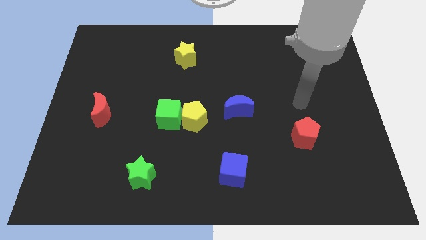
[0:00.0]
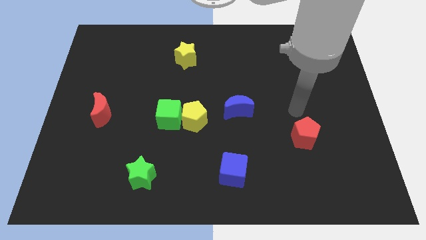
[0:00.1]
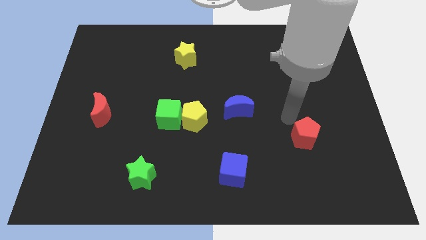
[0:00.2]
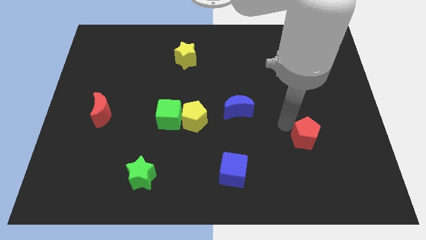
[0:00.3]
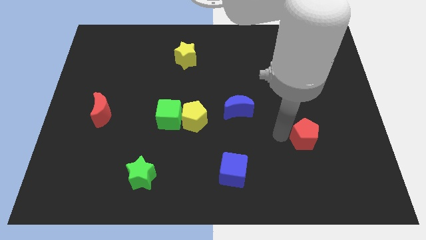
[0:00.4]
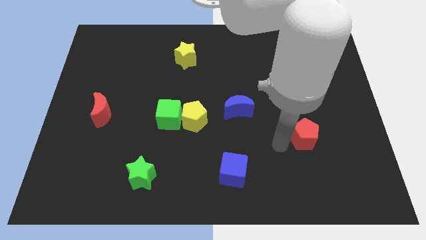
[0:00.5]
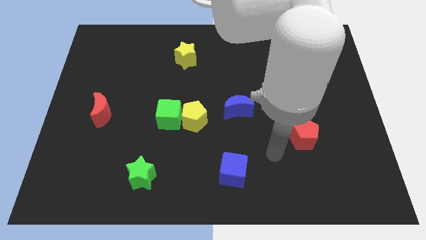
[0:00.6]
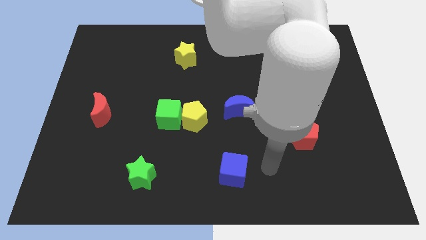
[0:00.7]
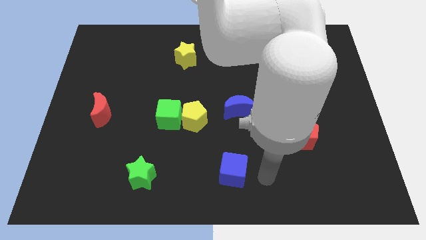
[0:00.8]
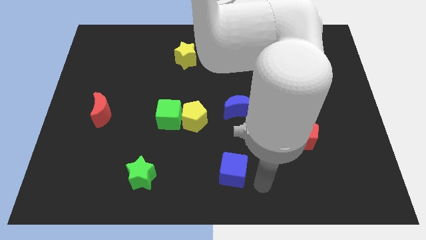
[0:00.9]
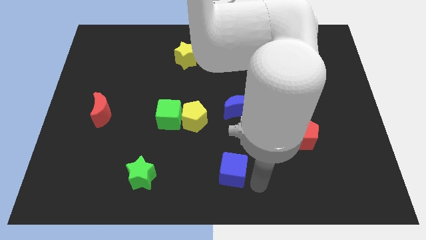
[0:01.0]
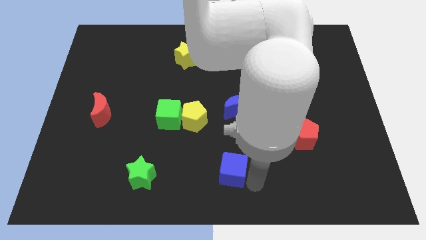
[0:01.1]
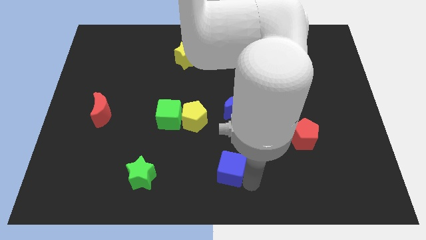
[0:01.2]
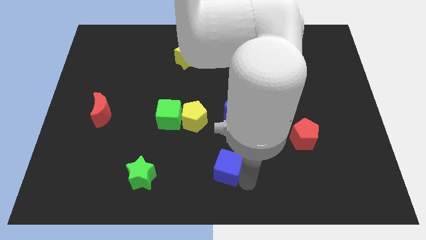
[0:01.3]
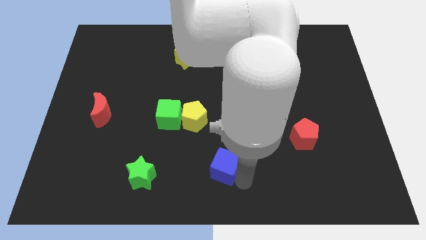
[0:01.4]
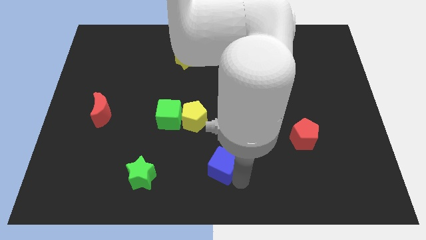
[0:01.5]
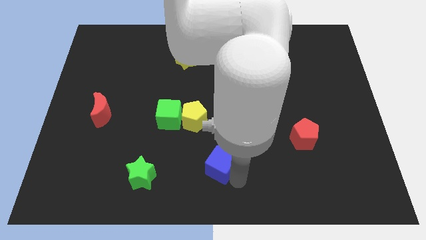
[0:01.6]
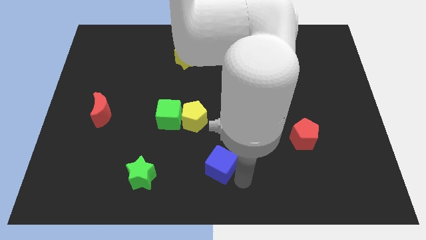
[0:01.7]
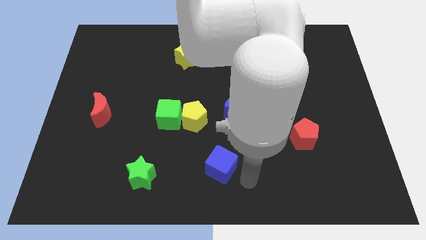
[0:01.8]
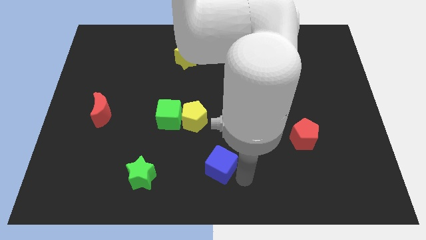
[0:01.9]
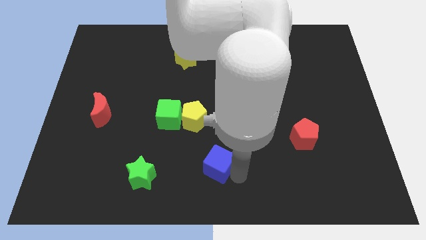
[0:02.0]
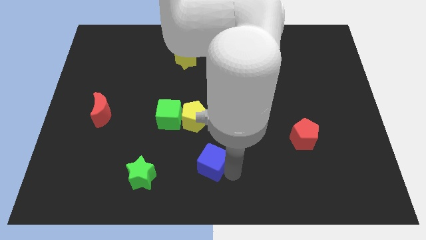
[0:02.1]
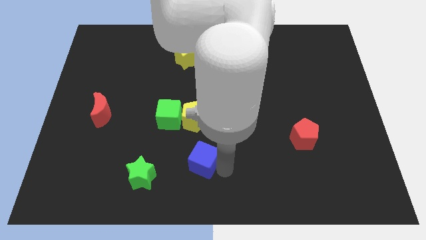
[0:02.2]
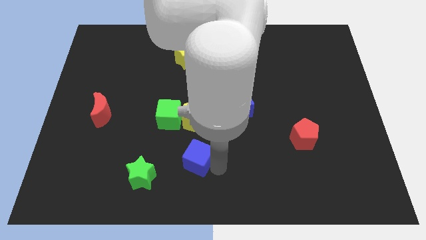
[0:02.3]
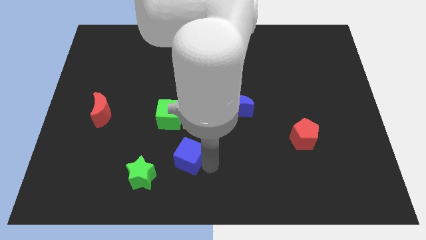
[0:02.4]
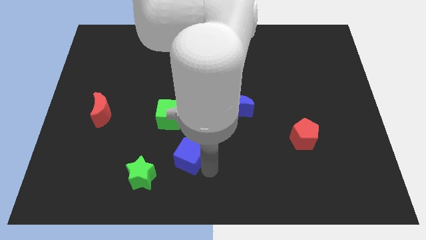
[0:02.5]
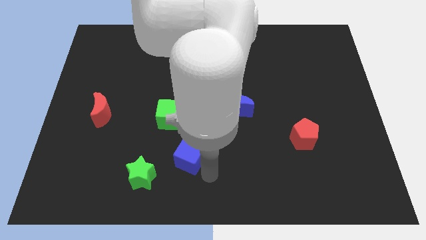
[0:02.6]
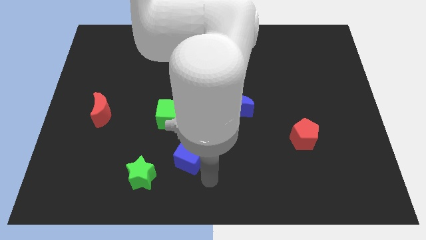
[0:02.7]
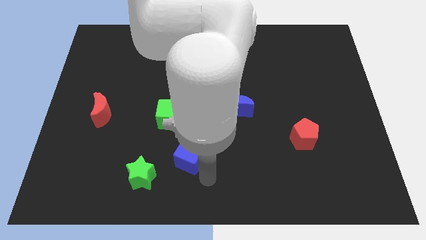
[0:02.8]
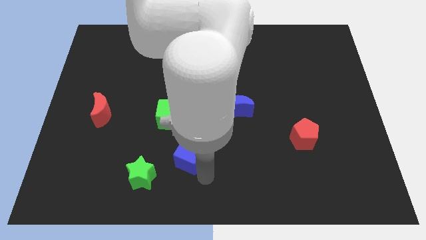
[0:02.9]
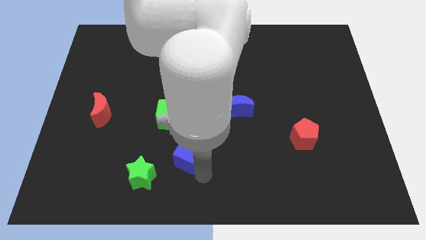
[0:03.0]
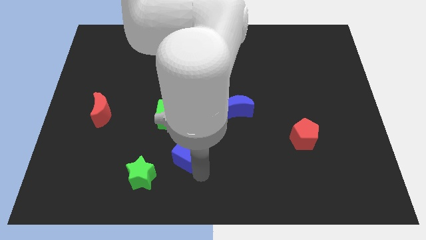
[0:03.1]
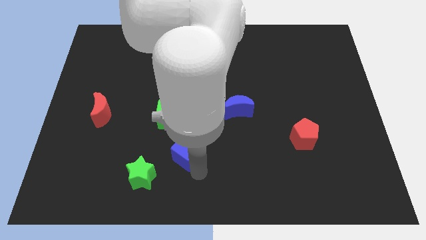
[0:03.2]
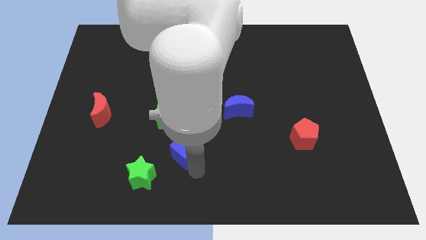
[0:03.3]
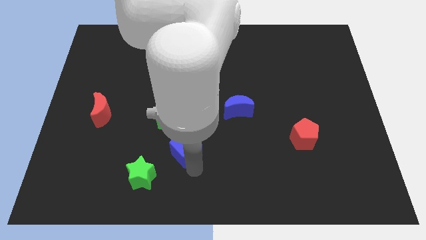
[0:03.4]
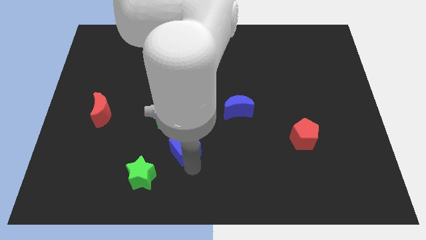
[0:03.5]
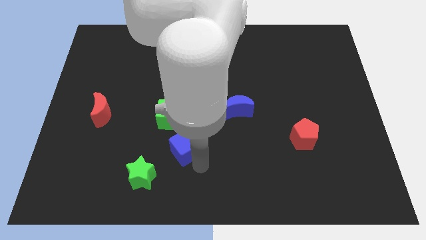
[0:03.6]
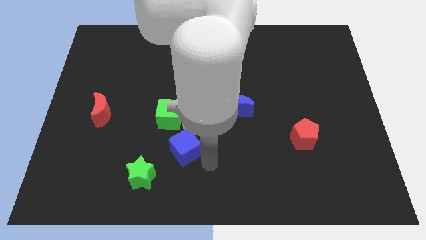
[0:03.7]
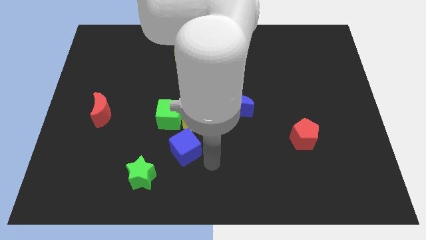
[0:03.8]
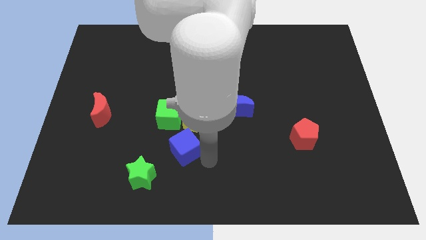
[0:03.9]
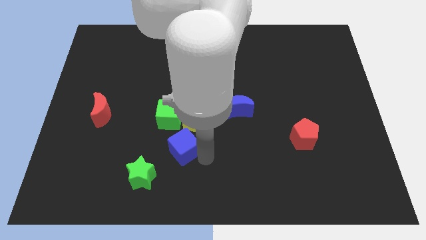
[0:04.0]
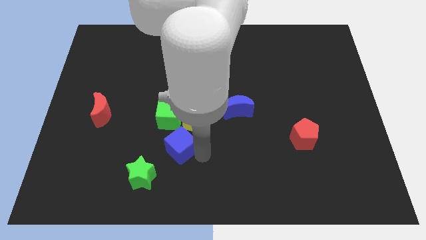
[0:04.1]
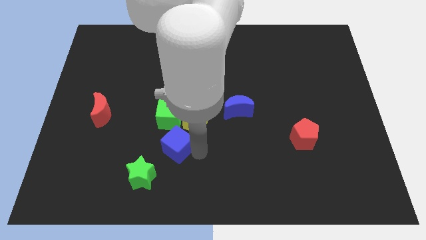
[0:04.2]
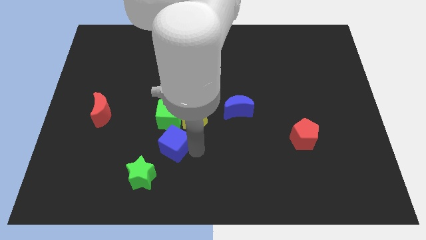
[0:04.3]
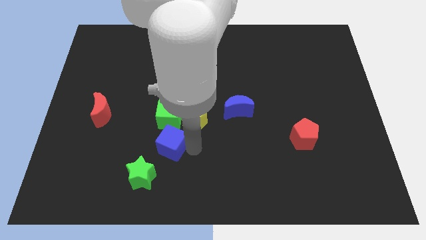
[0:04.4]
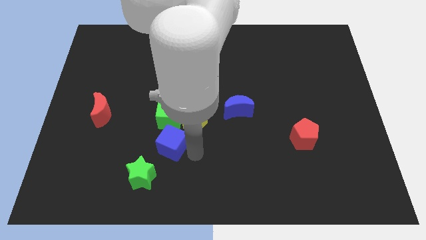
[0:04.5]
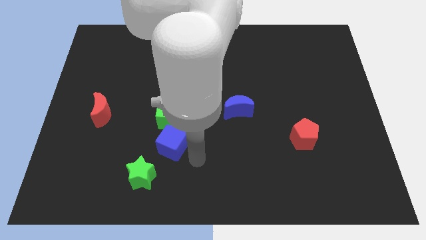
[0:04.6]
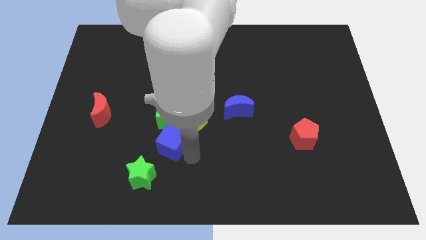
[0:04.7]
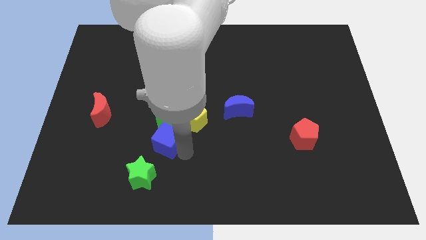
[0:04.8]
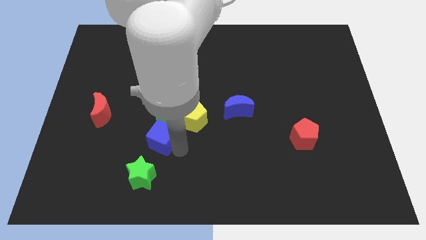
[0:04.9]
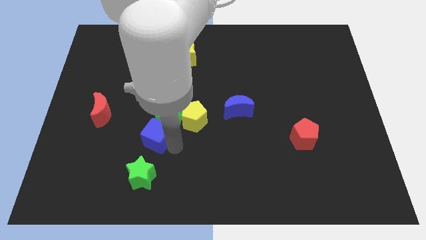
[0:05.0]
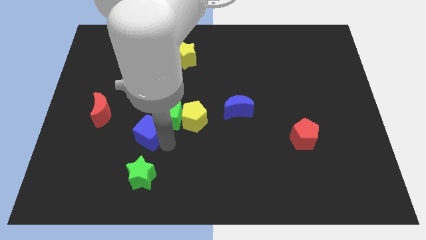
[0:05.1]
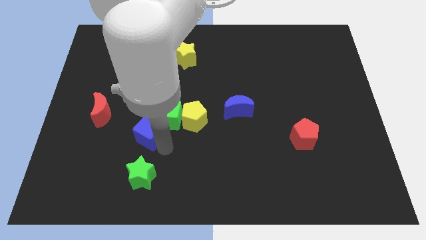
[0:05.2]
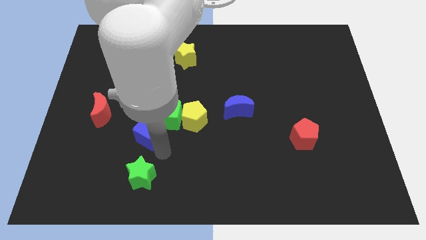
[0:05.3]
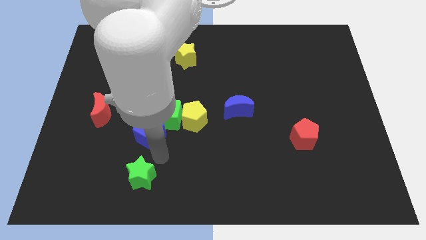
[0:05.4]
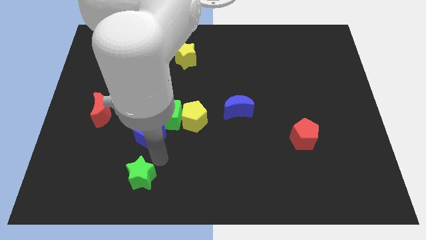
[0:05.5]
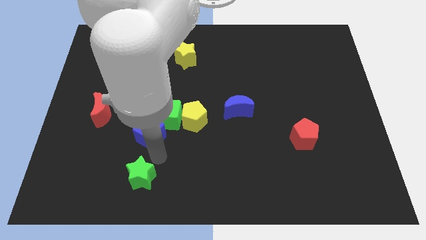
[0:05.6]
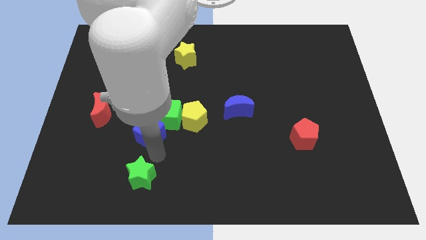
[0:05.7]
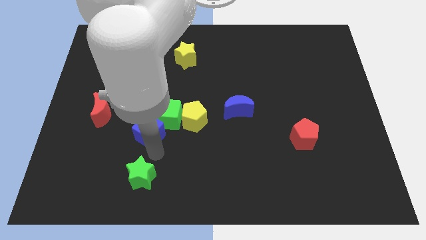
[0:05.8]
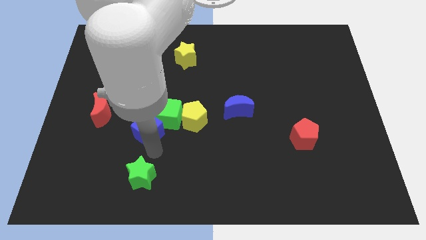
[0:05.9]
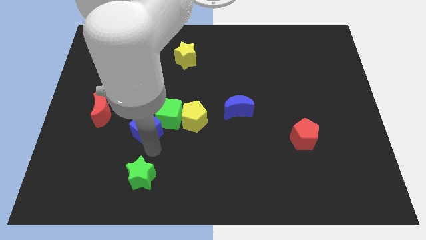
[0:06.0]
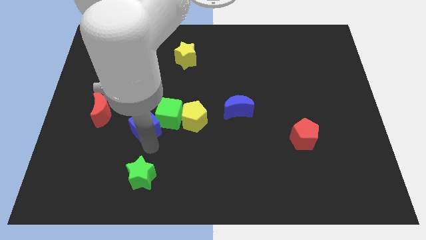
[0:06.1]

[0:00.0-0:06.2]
push the blue cube up and to the left diagonally

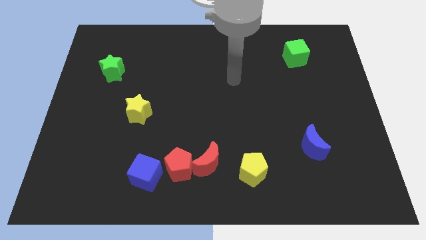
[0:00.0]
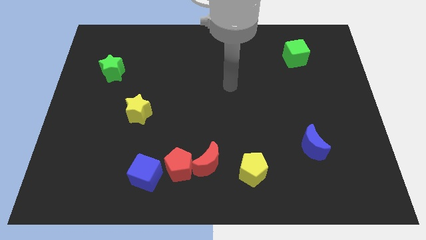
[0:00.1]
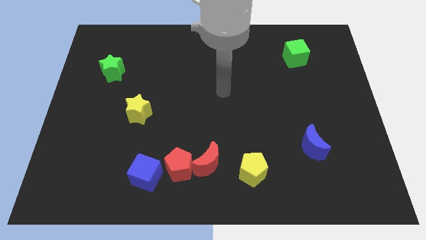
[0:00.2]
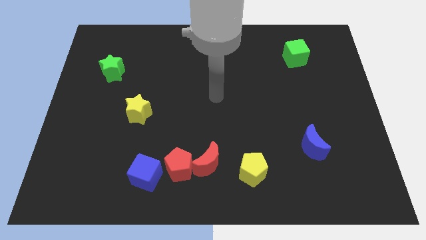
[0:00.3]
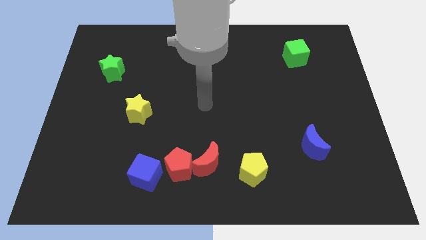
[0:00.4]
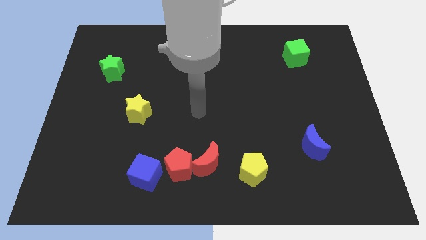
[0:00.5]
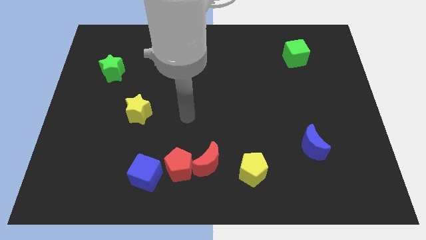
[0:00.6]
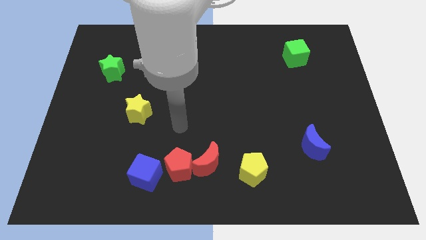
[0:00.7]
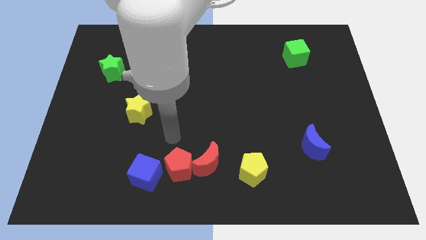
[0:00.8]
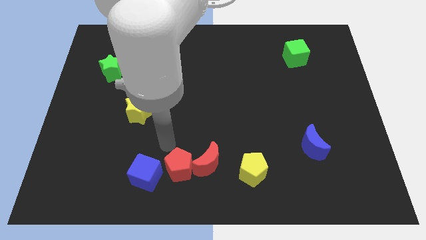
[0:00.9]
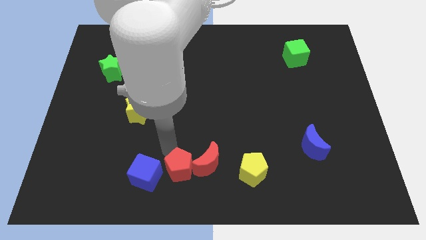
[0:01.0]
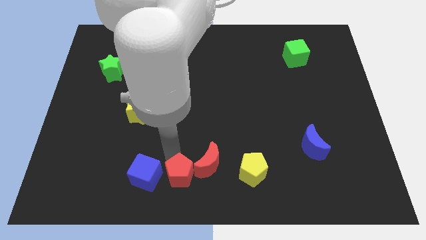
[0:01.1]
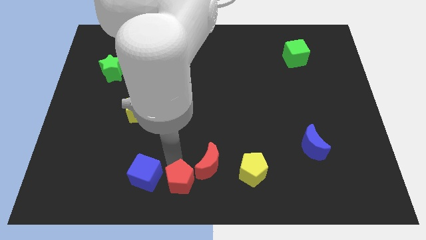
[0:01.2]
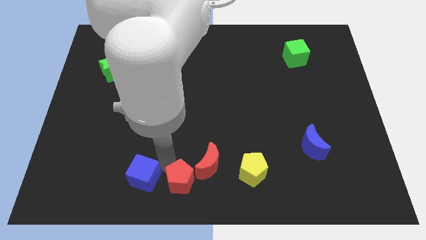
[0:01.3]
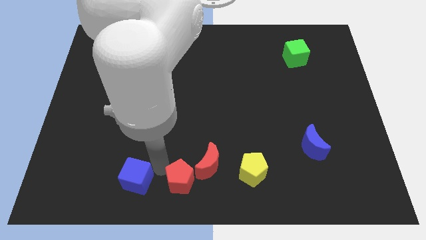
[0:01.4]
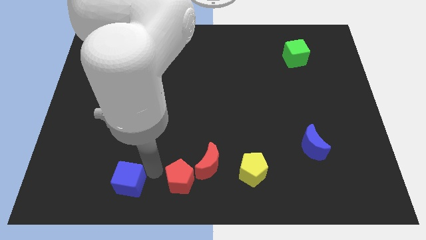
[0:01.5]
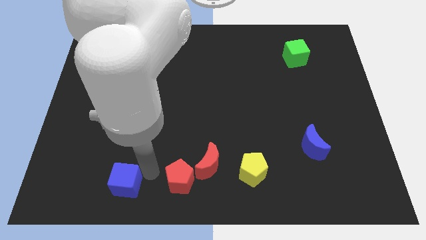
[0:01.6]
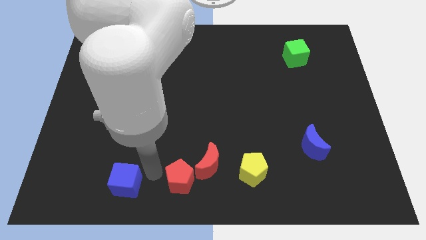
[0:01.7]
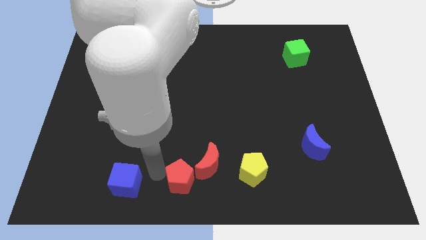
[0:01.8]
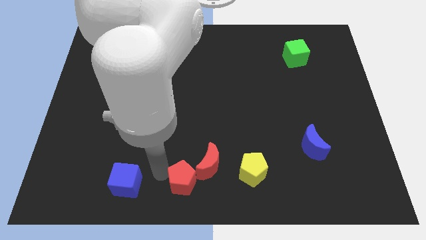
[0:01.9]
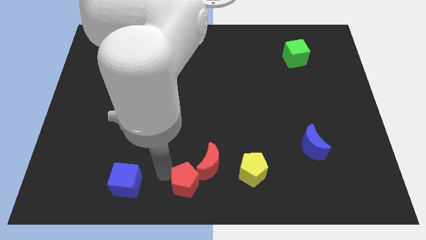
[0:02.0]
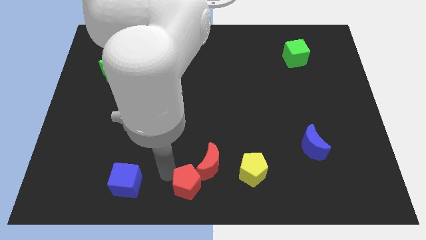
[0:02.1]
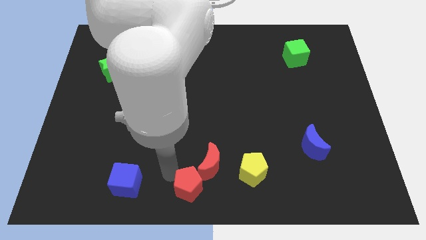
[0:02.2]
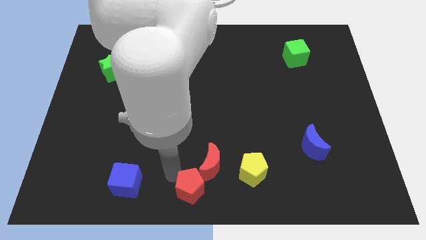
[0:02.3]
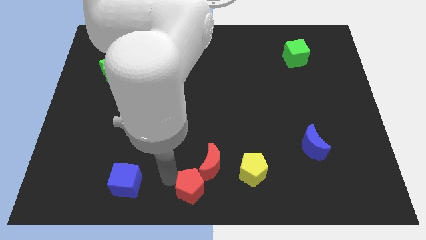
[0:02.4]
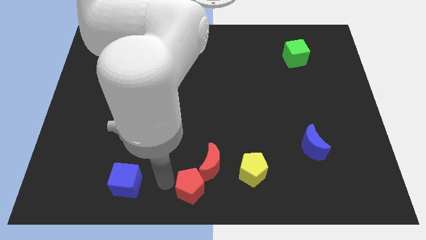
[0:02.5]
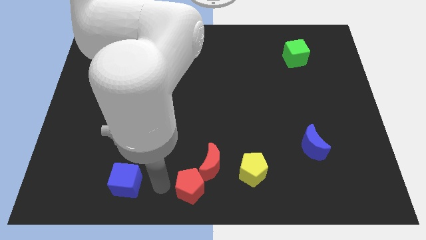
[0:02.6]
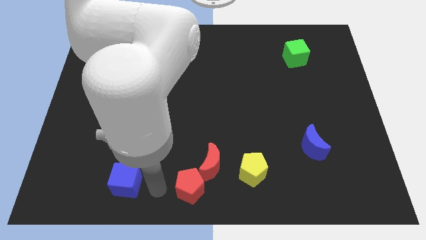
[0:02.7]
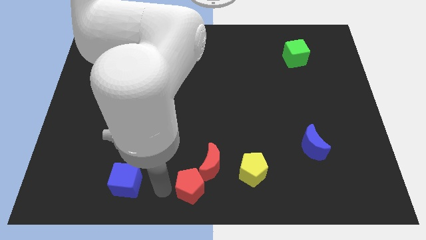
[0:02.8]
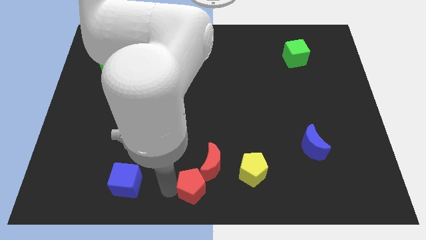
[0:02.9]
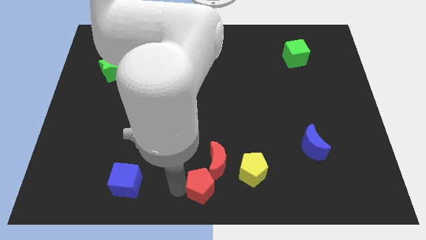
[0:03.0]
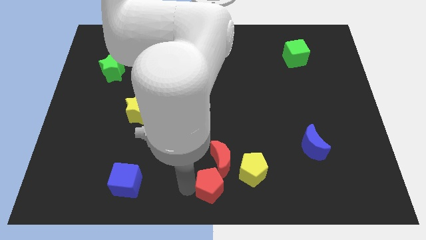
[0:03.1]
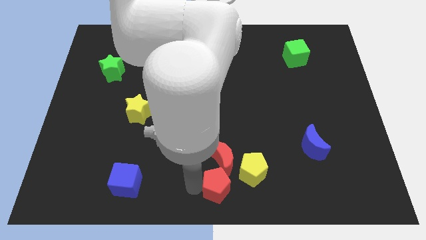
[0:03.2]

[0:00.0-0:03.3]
move the red pentagon a little right
